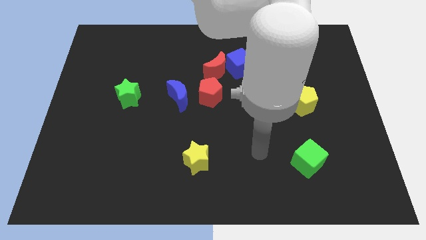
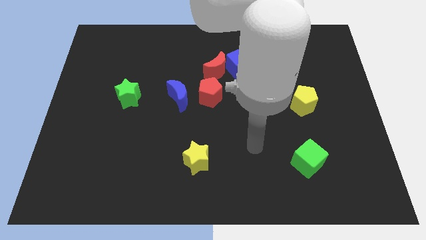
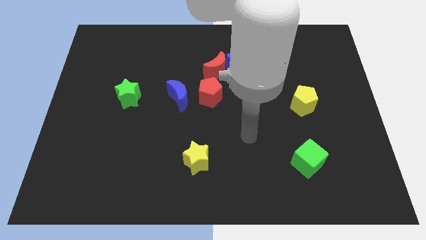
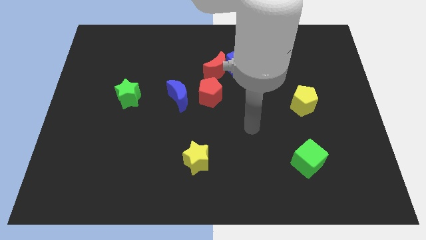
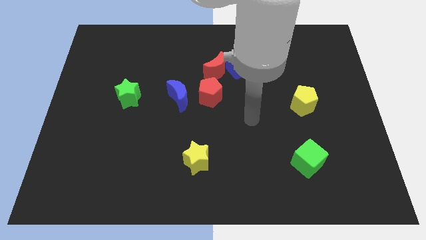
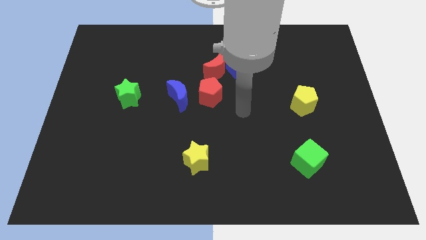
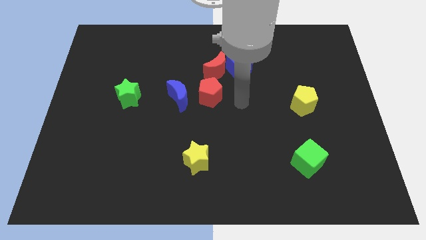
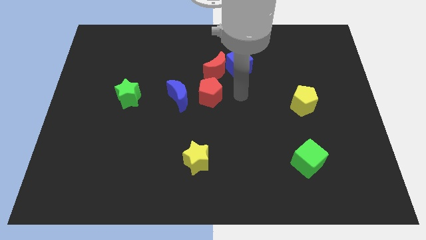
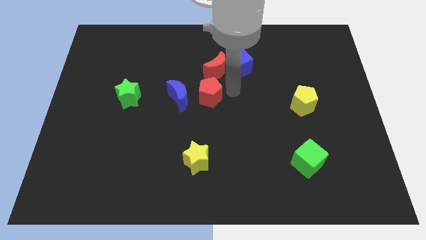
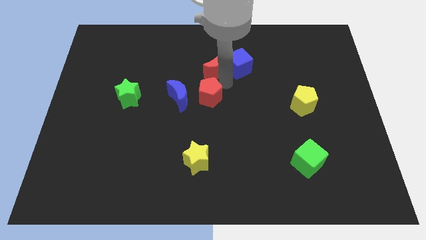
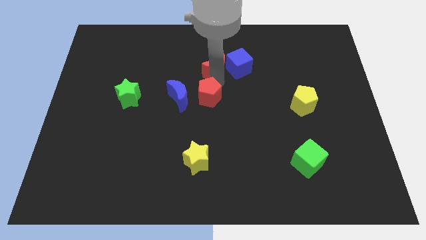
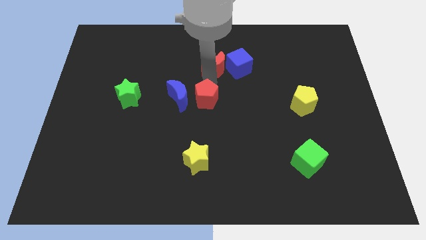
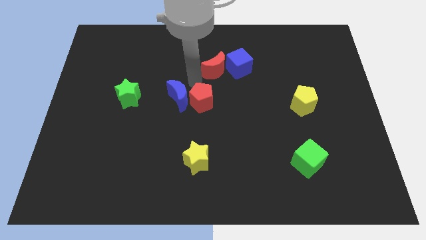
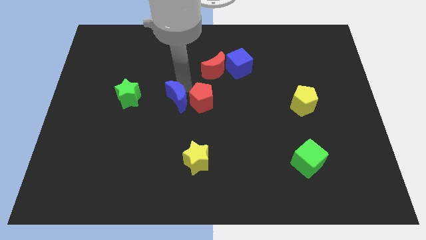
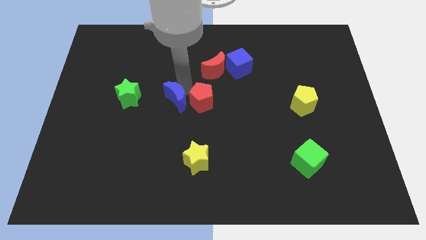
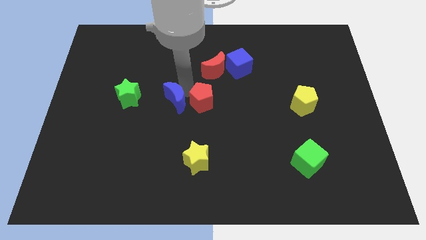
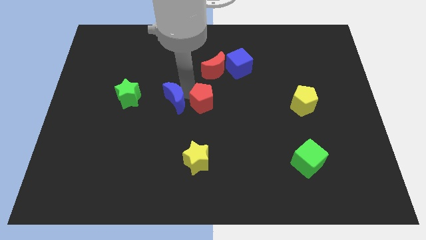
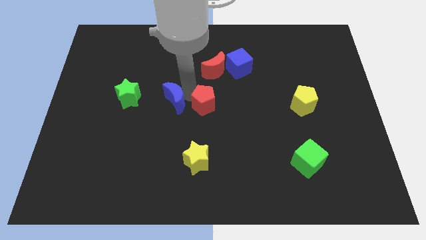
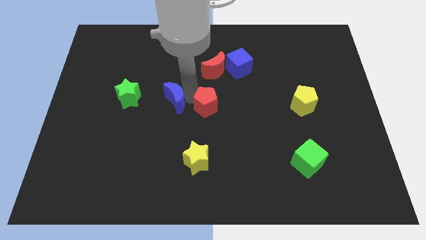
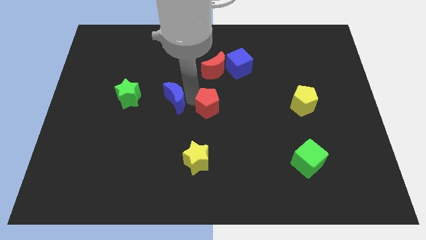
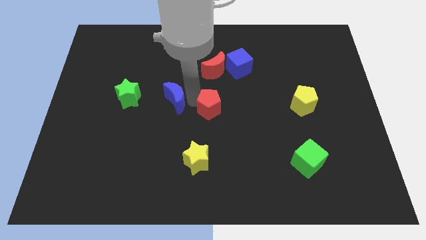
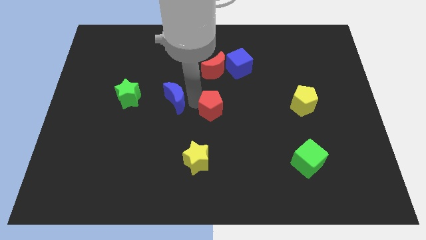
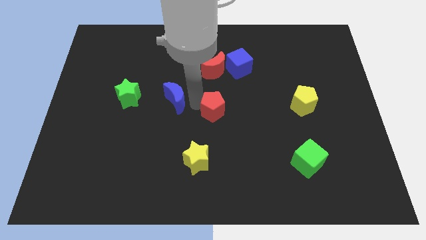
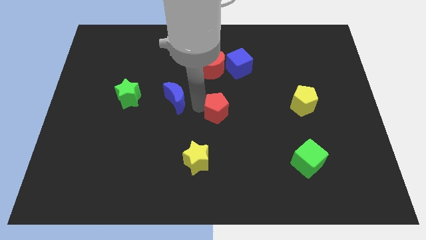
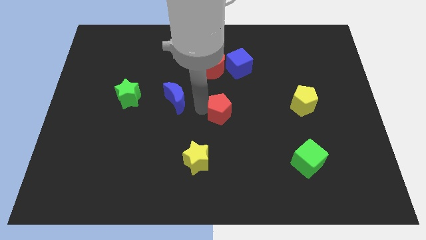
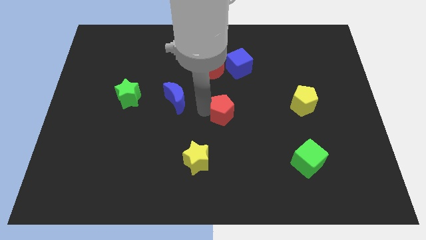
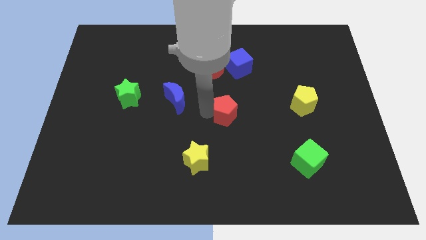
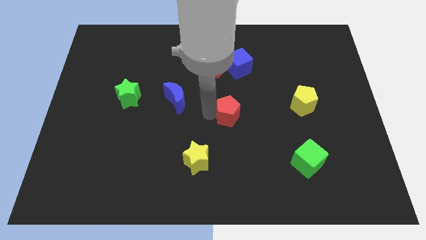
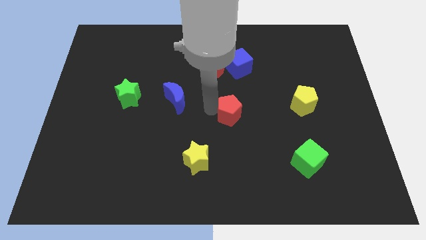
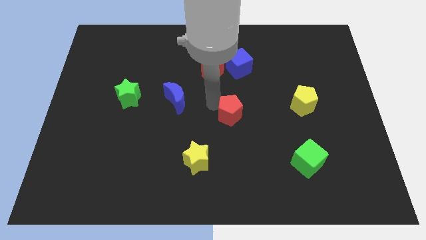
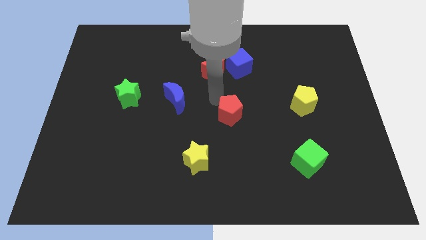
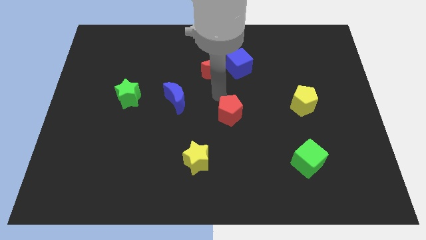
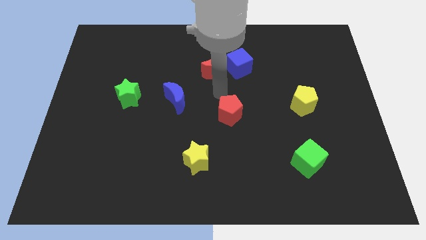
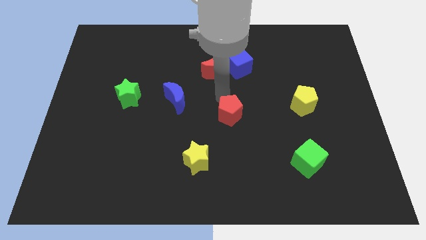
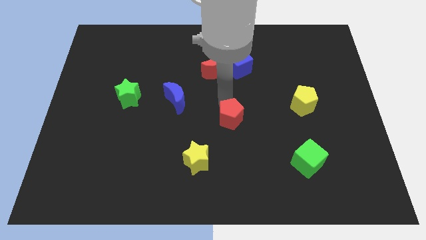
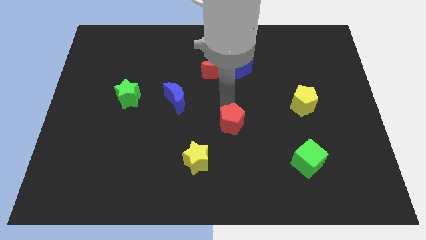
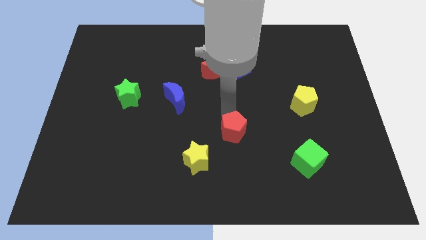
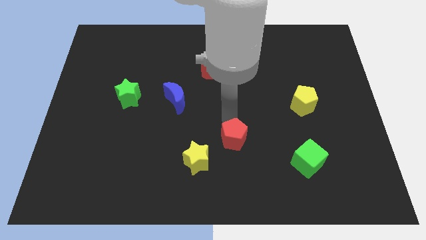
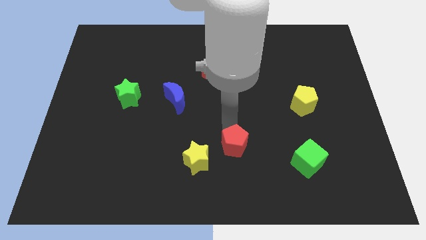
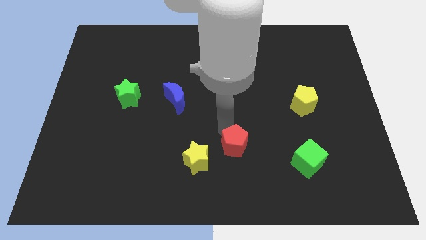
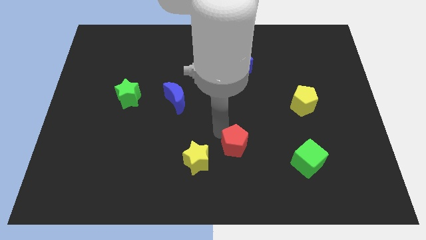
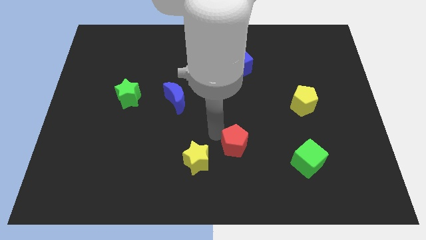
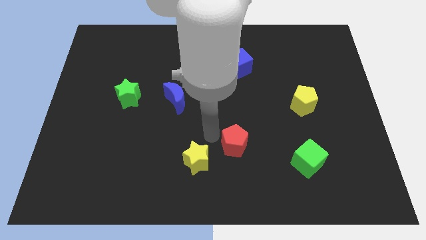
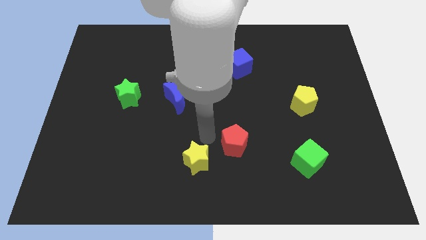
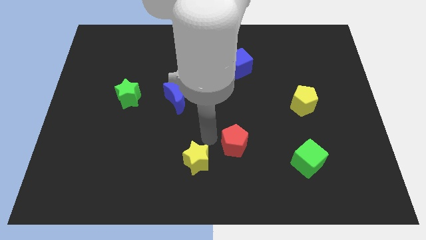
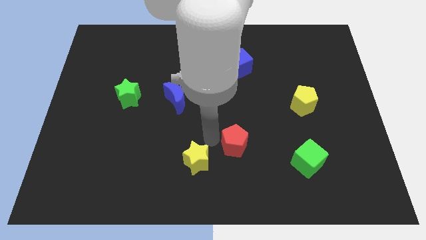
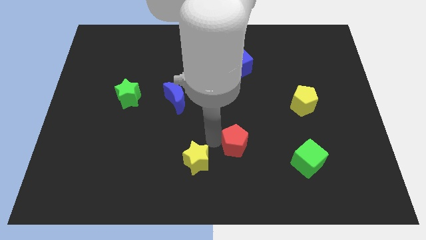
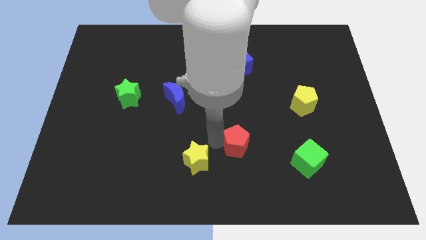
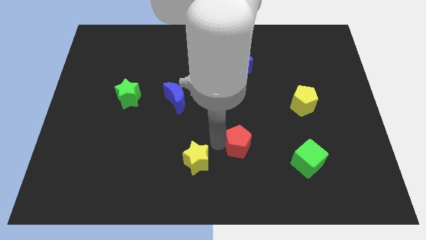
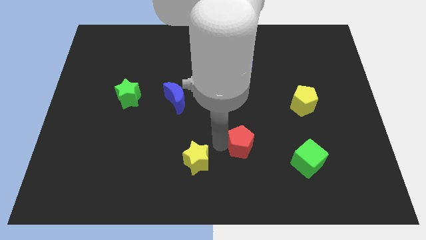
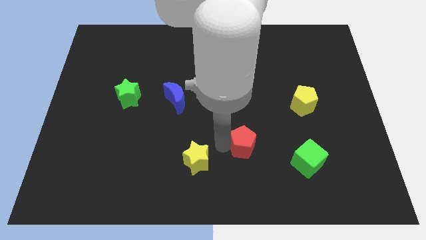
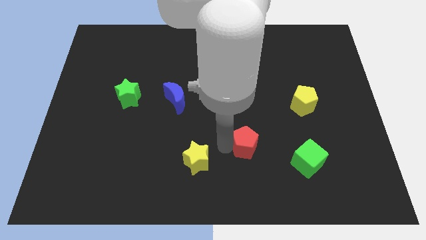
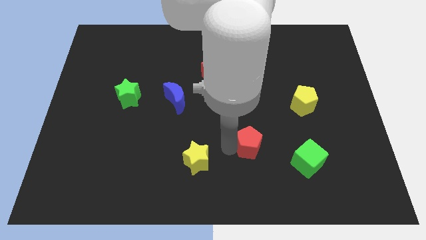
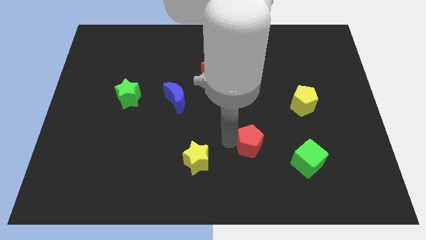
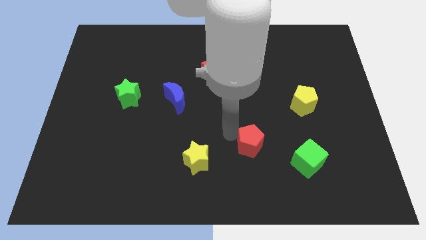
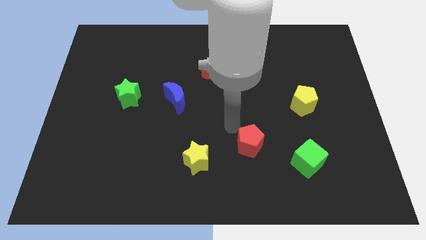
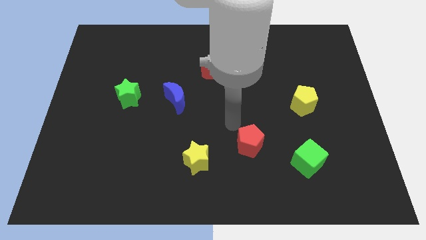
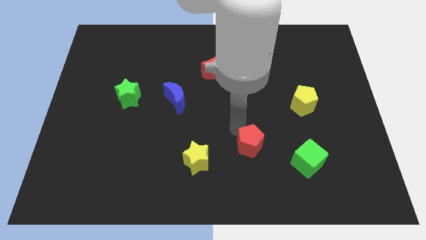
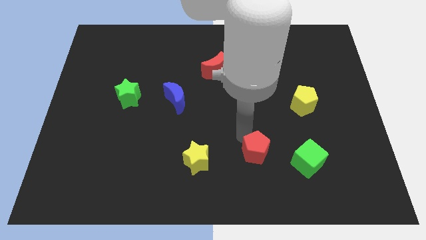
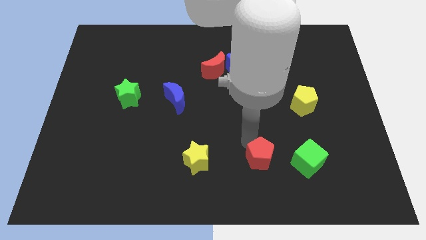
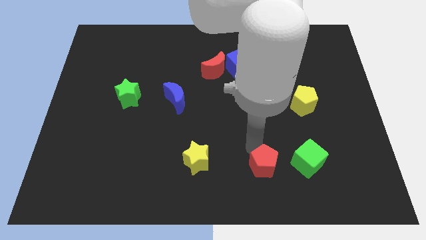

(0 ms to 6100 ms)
move the red pentagon downwards and right

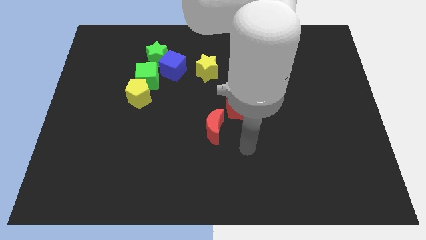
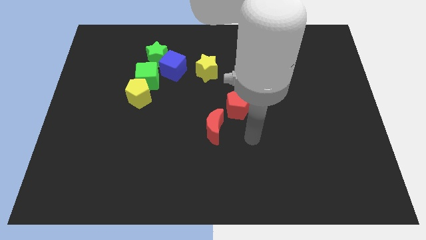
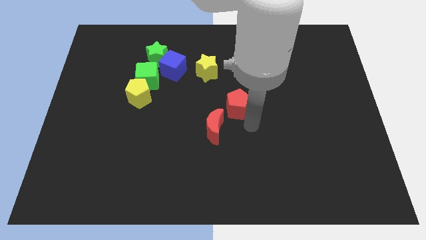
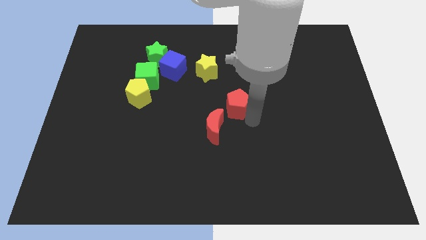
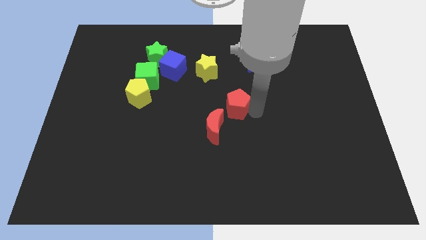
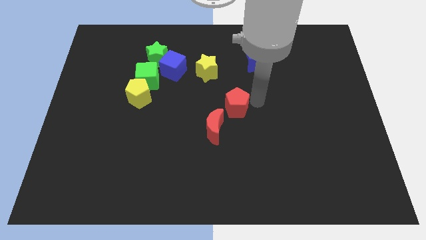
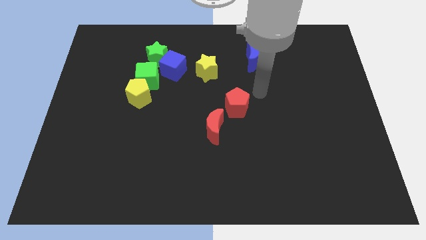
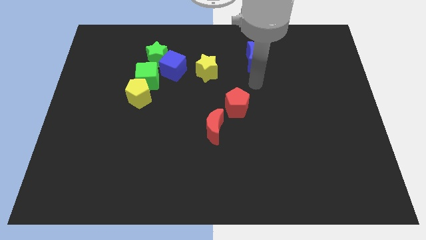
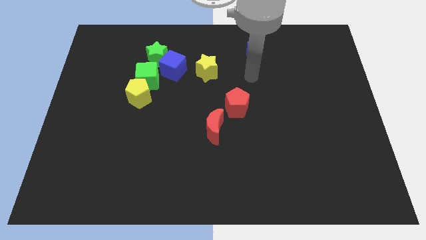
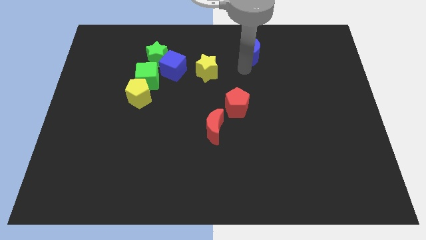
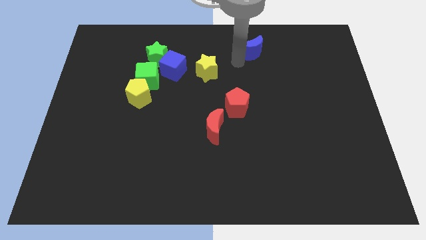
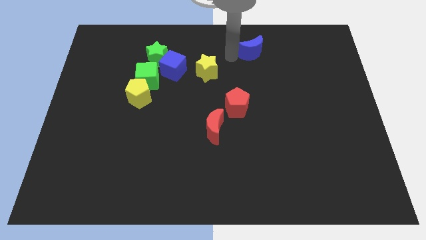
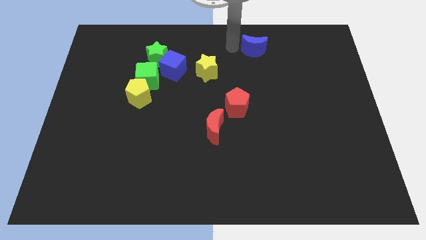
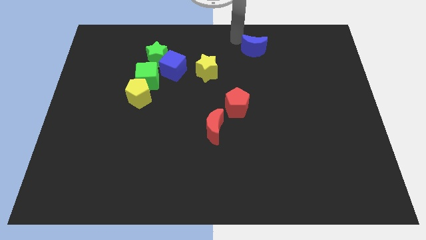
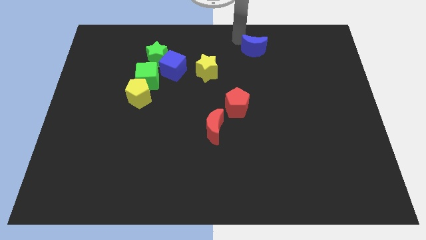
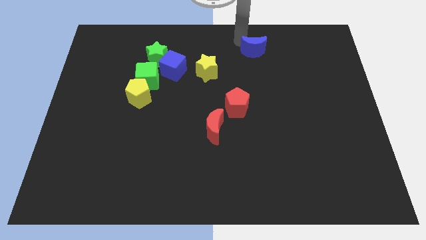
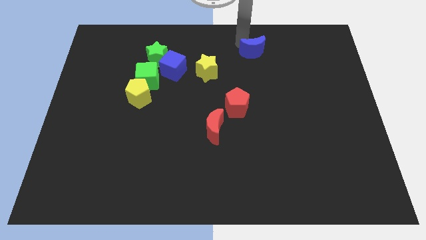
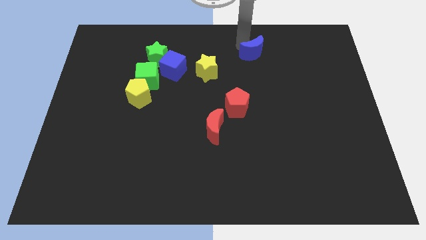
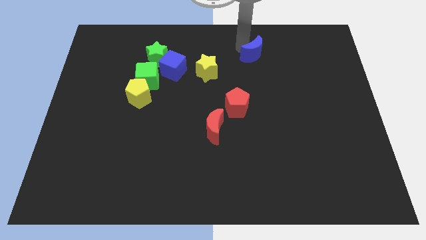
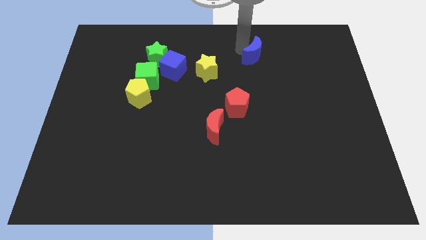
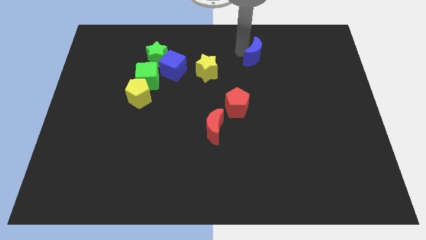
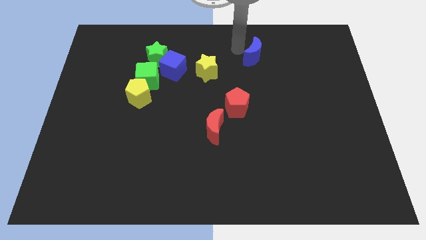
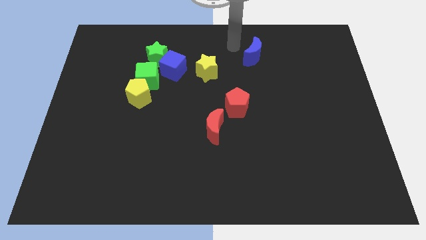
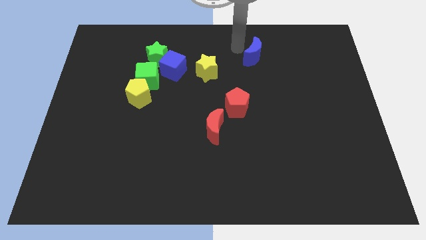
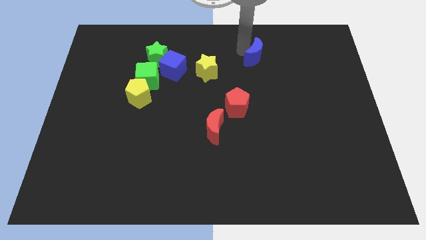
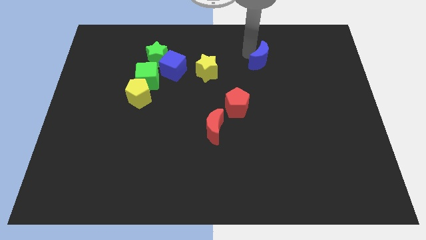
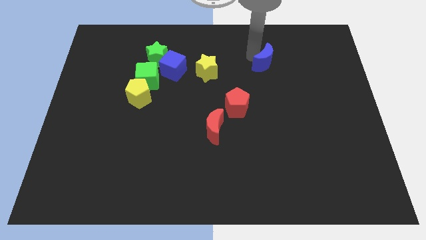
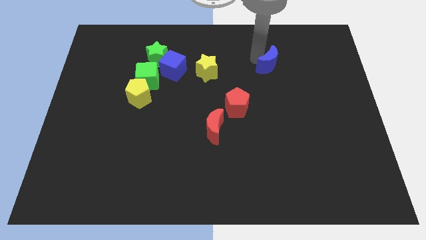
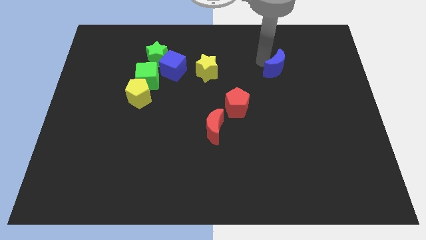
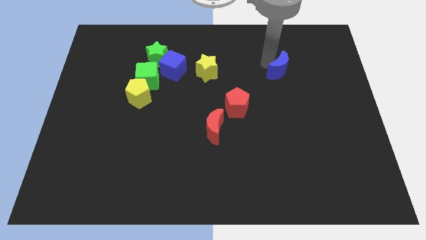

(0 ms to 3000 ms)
push the blue moon a little bit down and then right
